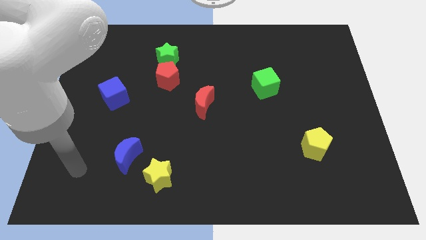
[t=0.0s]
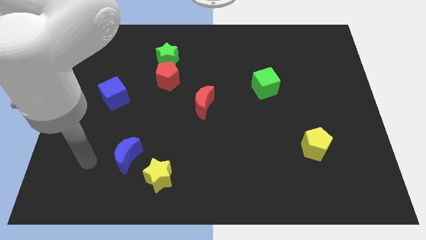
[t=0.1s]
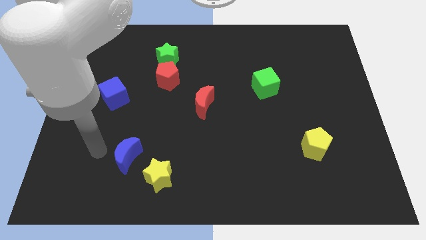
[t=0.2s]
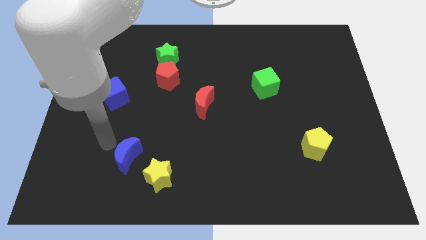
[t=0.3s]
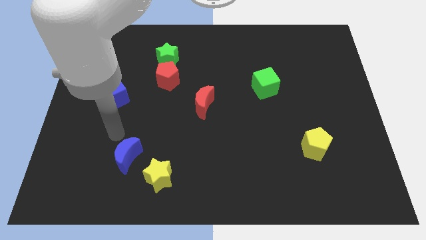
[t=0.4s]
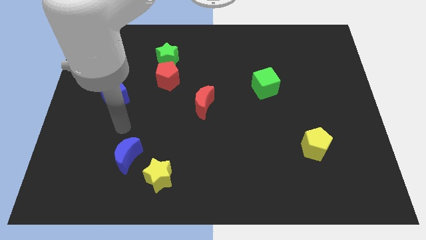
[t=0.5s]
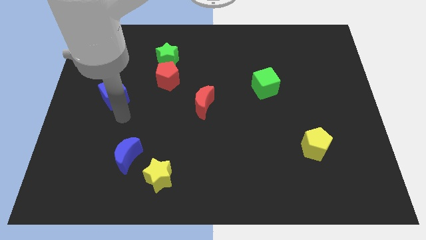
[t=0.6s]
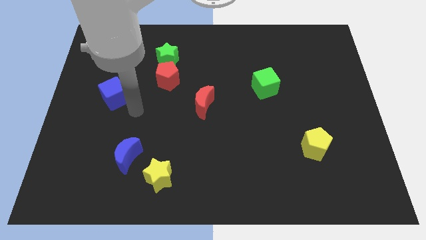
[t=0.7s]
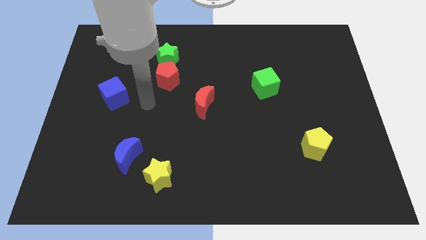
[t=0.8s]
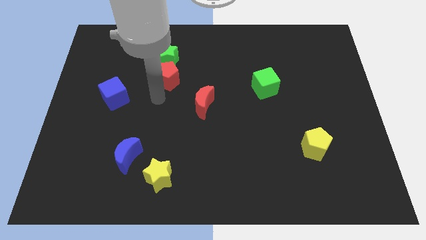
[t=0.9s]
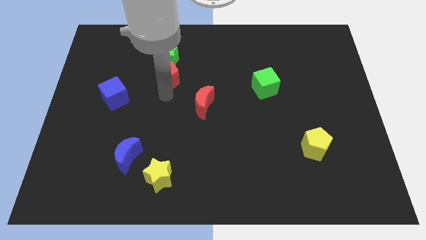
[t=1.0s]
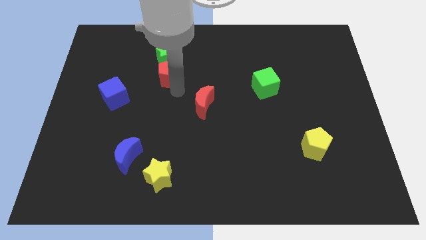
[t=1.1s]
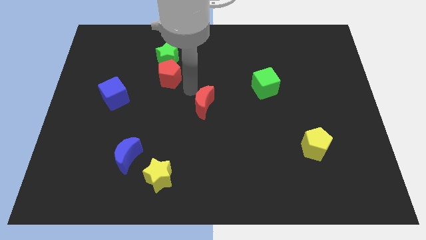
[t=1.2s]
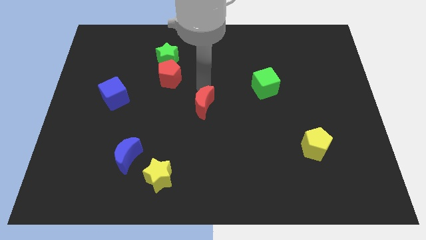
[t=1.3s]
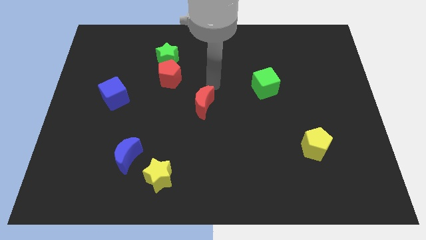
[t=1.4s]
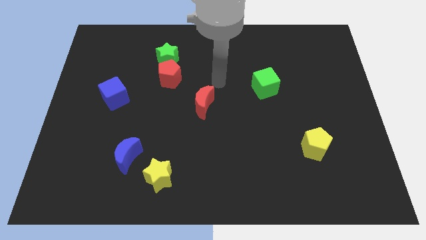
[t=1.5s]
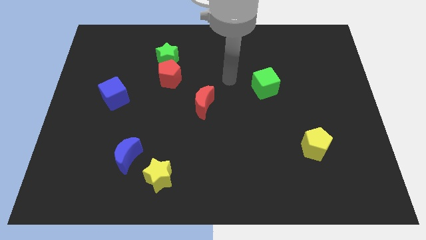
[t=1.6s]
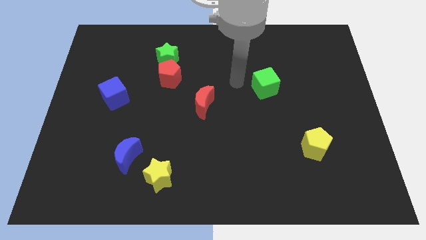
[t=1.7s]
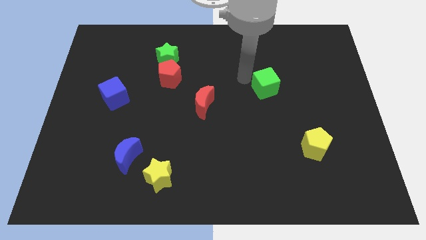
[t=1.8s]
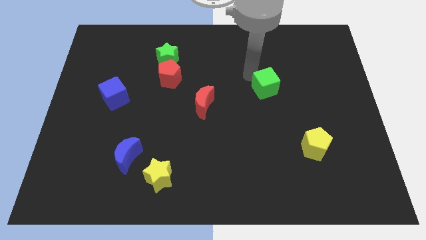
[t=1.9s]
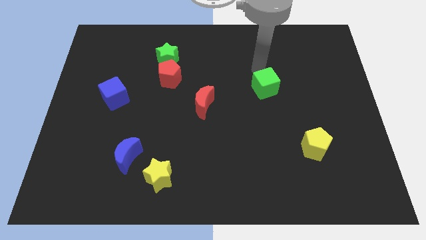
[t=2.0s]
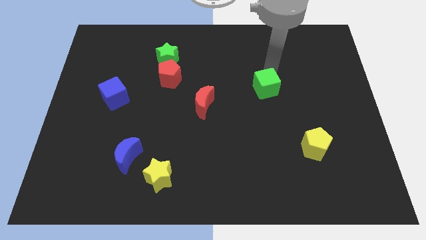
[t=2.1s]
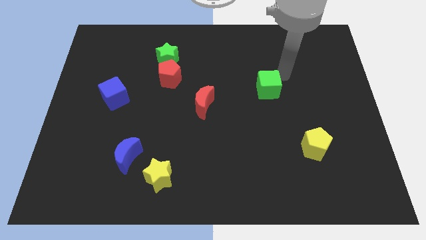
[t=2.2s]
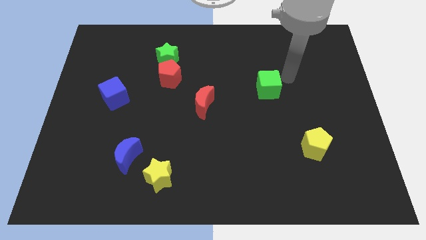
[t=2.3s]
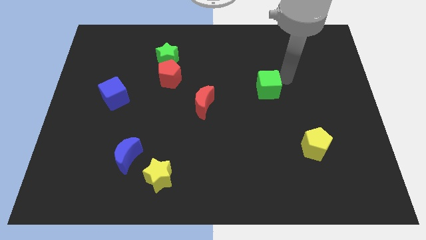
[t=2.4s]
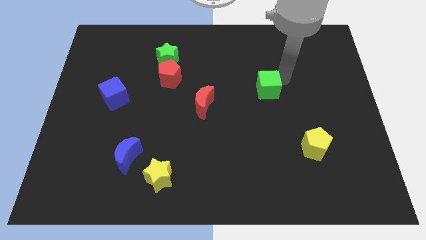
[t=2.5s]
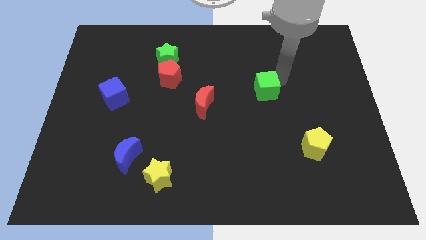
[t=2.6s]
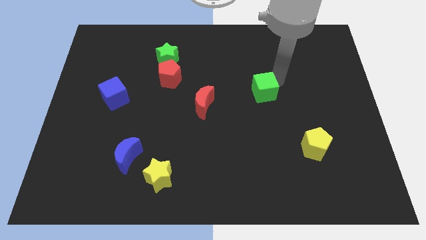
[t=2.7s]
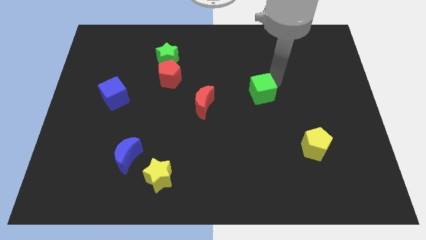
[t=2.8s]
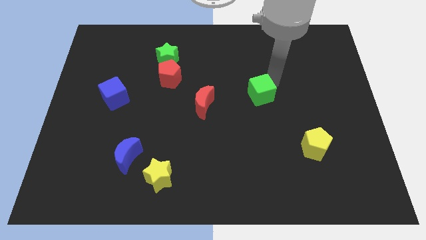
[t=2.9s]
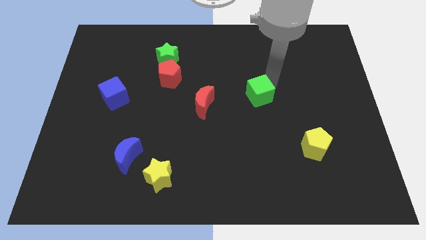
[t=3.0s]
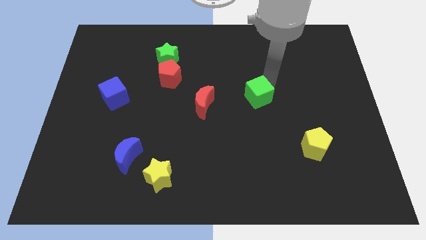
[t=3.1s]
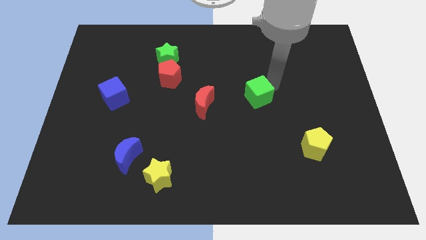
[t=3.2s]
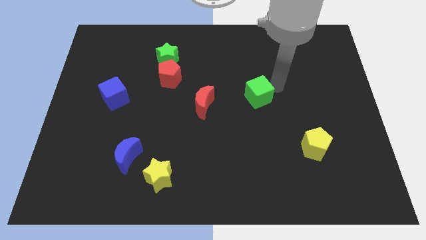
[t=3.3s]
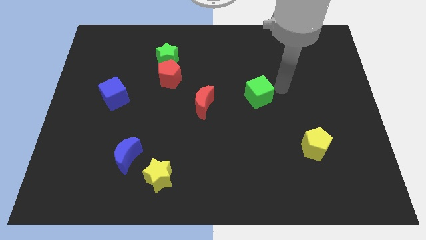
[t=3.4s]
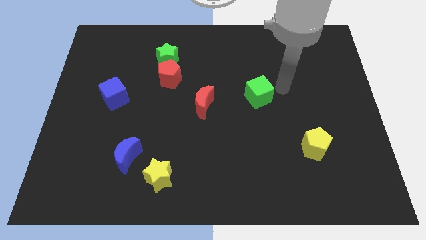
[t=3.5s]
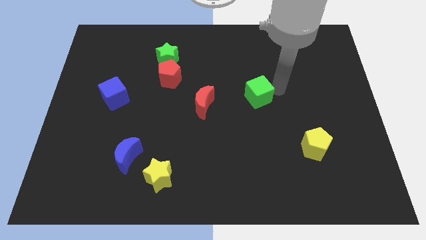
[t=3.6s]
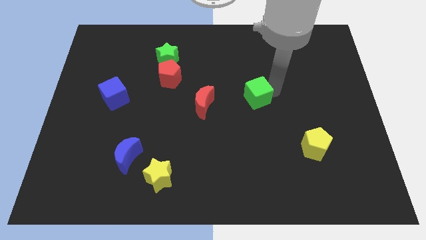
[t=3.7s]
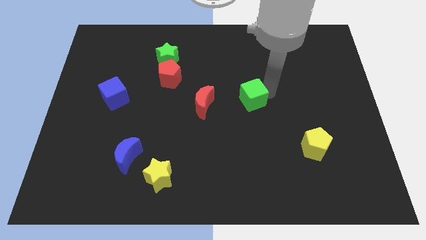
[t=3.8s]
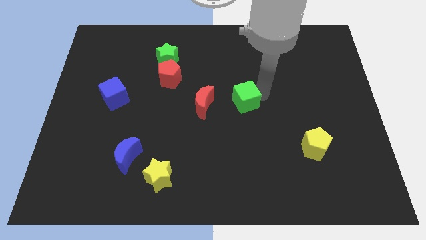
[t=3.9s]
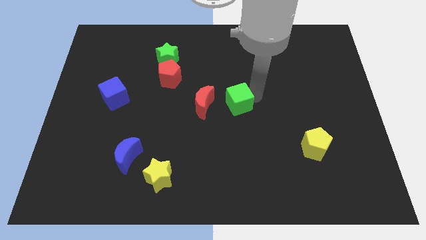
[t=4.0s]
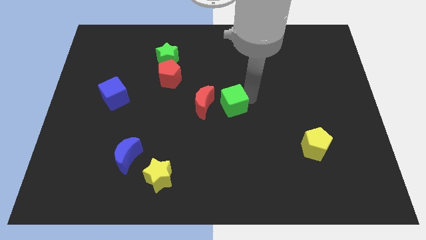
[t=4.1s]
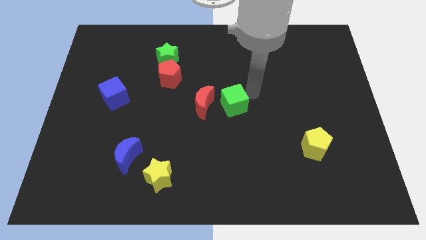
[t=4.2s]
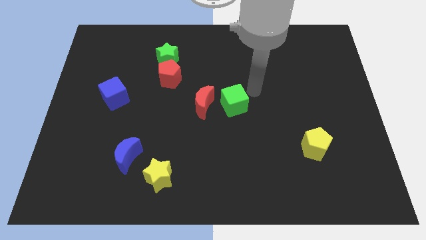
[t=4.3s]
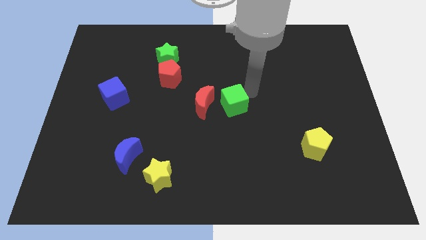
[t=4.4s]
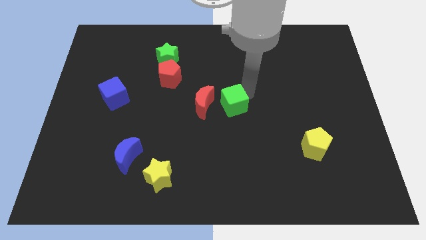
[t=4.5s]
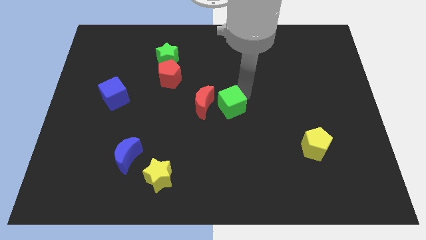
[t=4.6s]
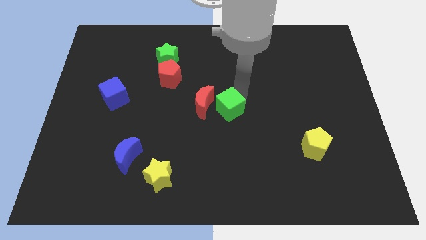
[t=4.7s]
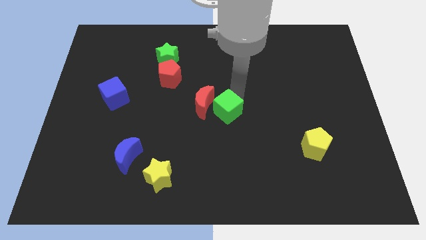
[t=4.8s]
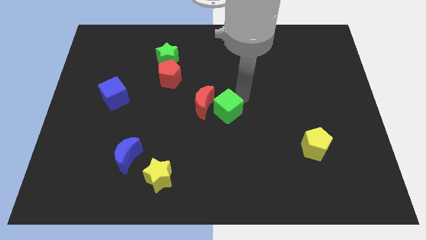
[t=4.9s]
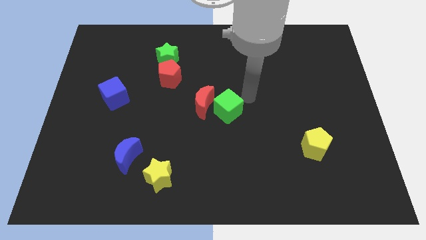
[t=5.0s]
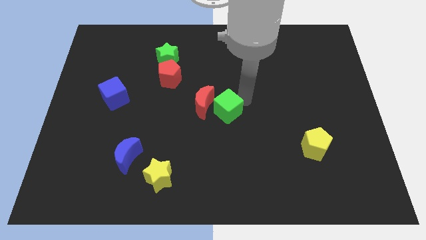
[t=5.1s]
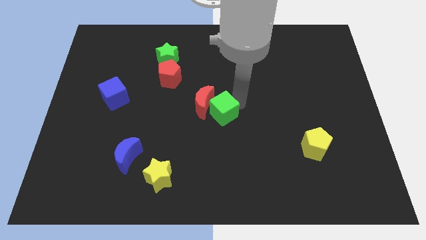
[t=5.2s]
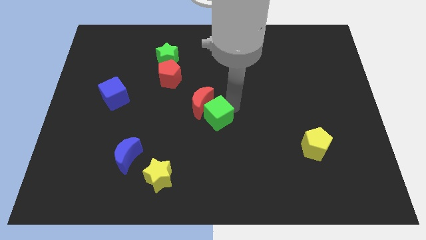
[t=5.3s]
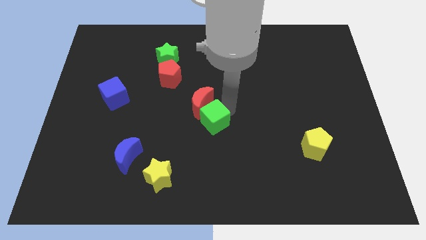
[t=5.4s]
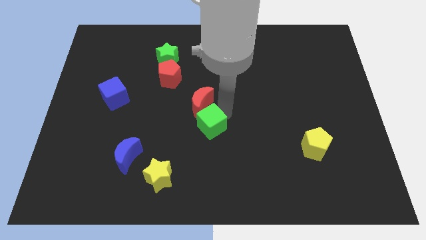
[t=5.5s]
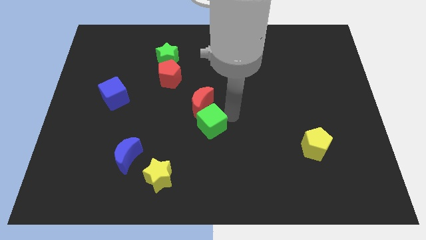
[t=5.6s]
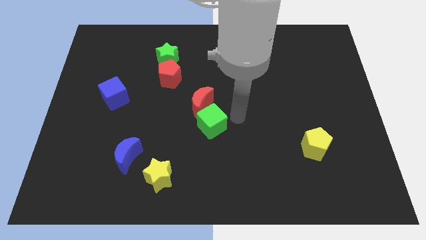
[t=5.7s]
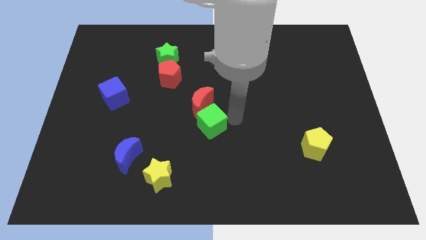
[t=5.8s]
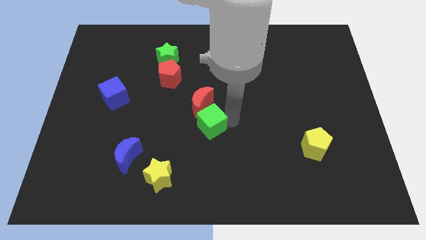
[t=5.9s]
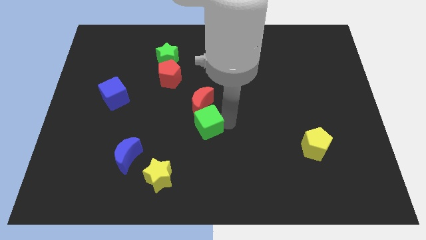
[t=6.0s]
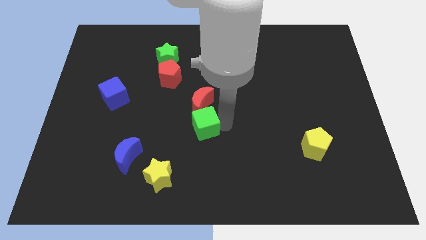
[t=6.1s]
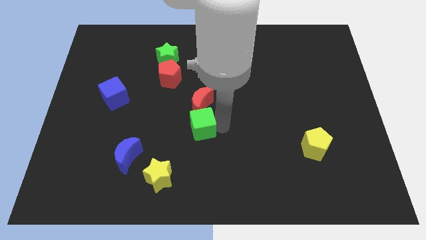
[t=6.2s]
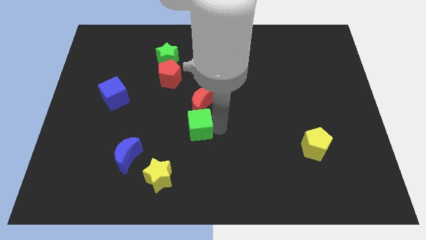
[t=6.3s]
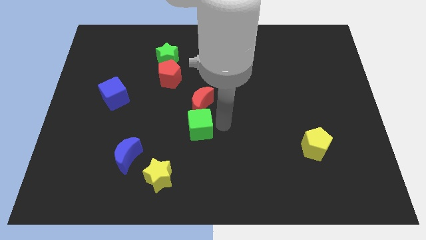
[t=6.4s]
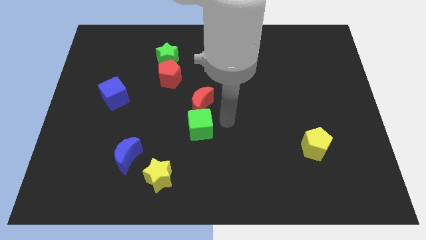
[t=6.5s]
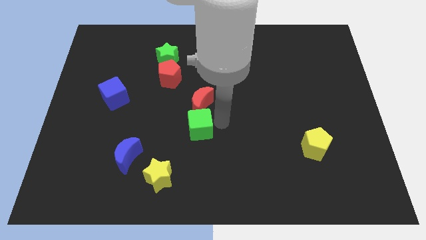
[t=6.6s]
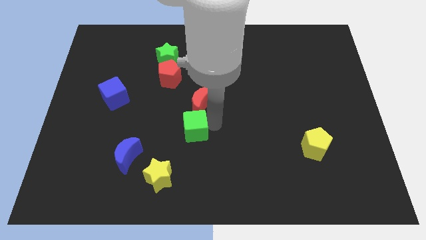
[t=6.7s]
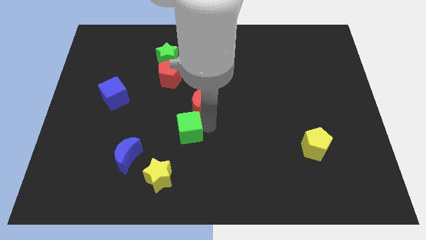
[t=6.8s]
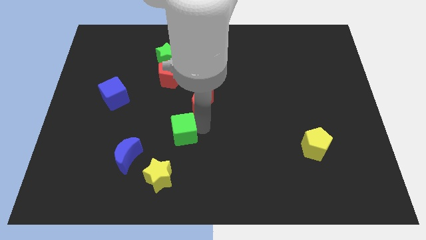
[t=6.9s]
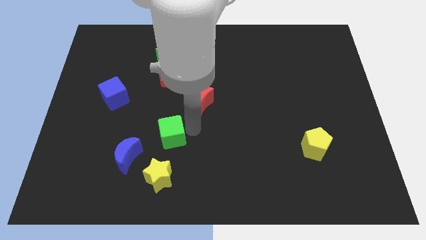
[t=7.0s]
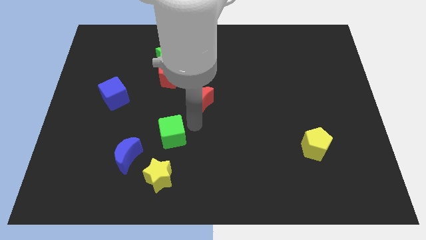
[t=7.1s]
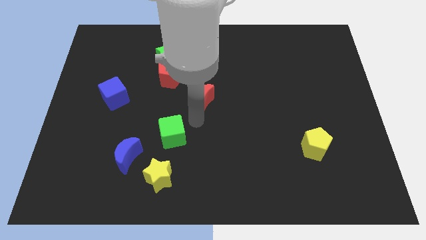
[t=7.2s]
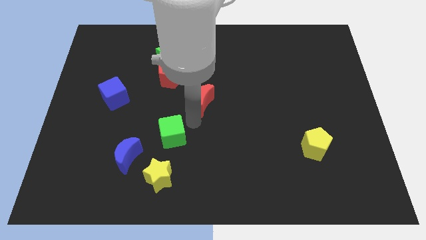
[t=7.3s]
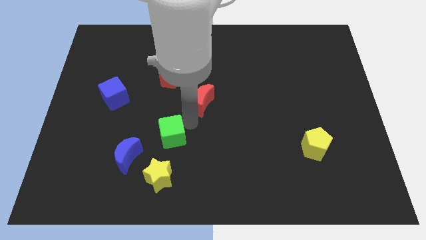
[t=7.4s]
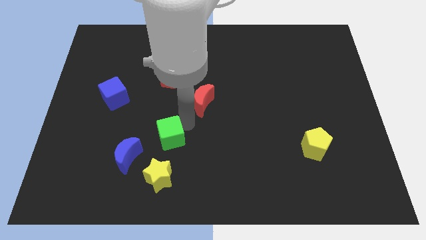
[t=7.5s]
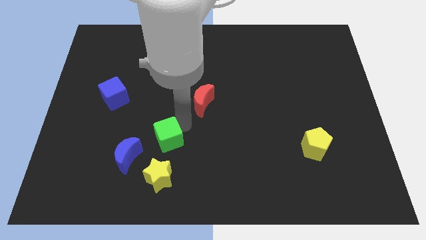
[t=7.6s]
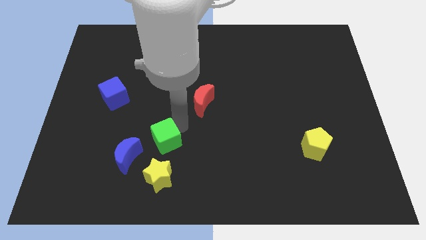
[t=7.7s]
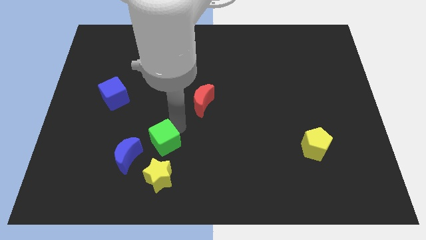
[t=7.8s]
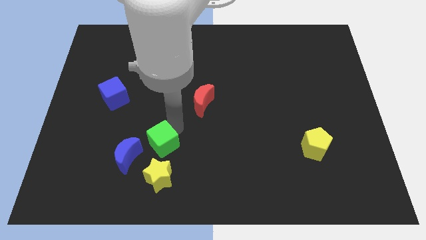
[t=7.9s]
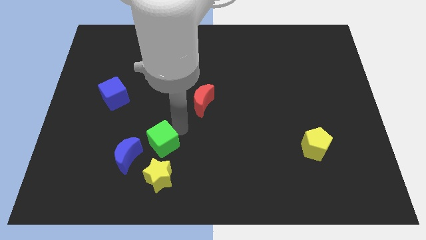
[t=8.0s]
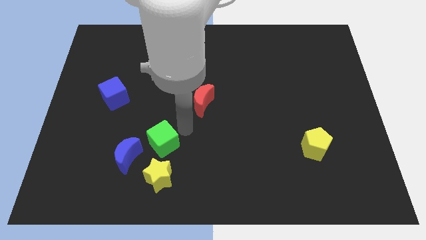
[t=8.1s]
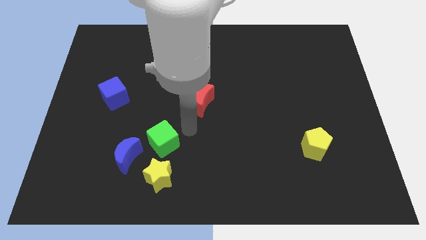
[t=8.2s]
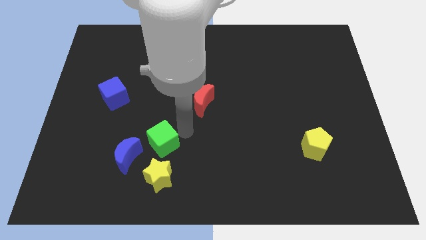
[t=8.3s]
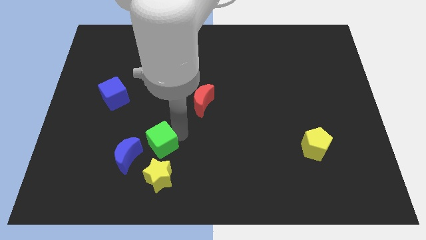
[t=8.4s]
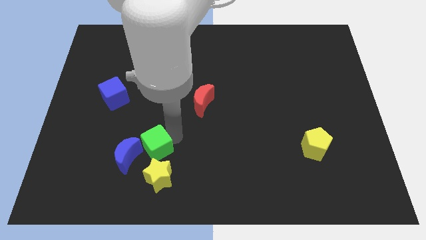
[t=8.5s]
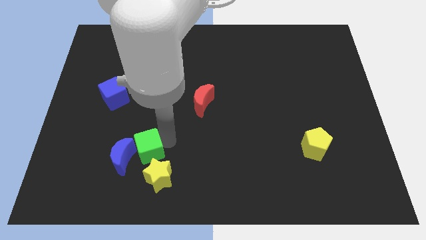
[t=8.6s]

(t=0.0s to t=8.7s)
put the green cube to the blue moon
